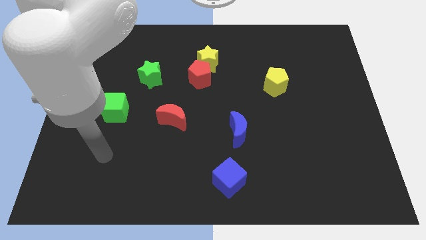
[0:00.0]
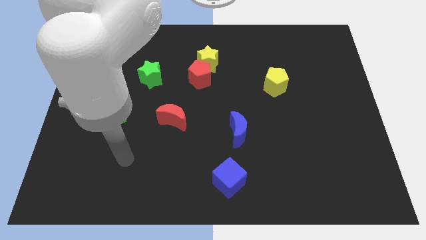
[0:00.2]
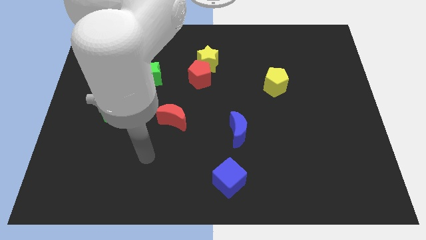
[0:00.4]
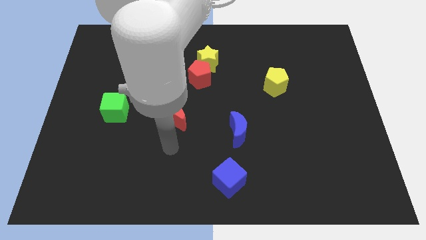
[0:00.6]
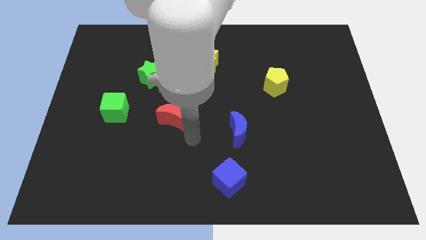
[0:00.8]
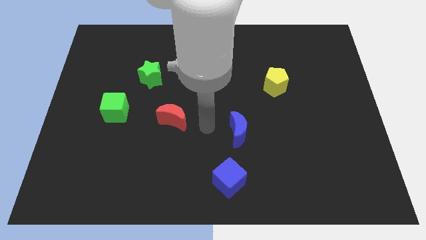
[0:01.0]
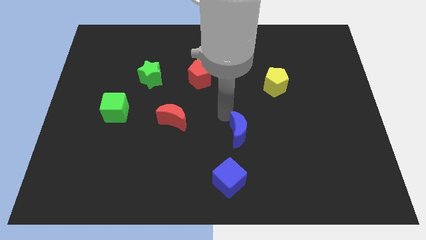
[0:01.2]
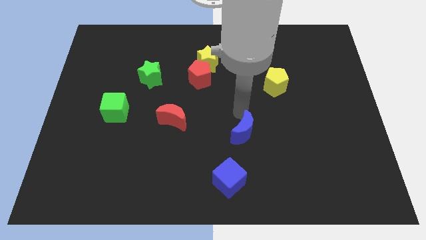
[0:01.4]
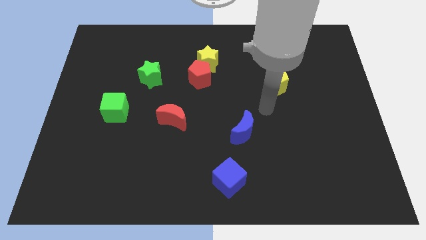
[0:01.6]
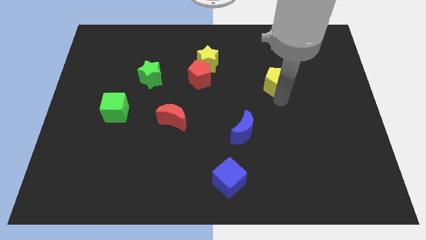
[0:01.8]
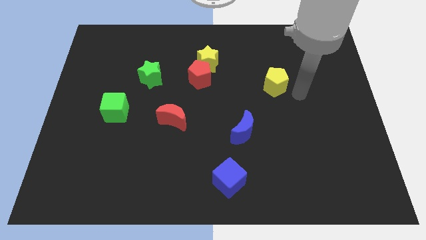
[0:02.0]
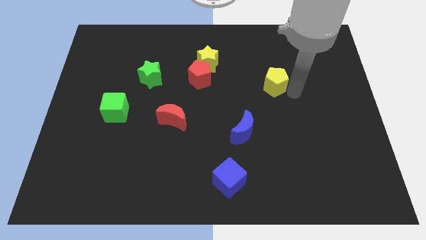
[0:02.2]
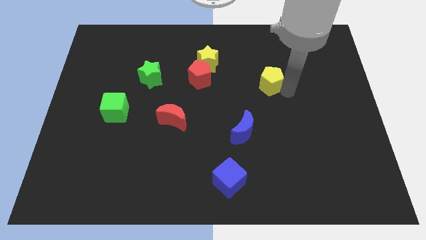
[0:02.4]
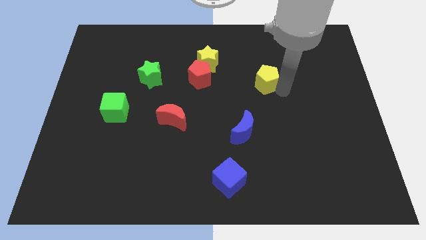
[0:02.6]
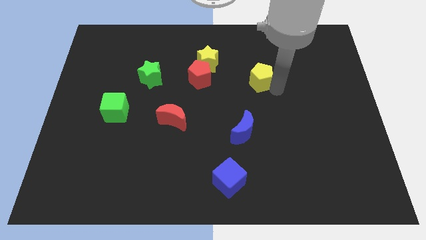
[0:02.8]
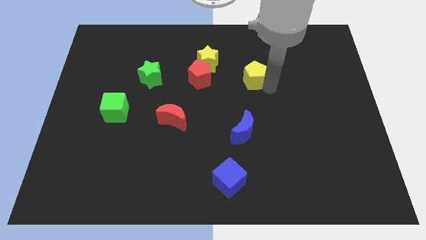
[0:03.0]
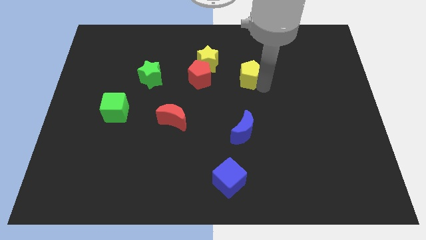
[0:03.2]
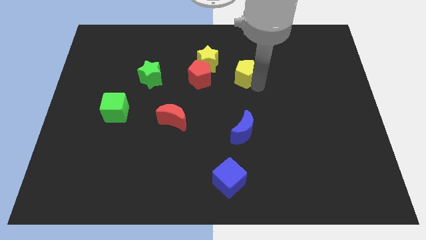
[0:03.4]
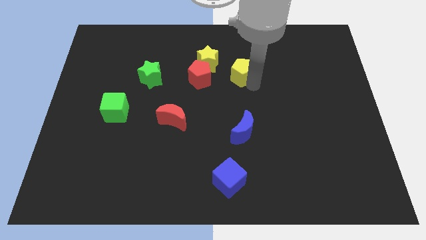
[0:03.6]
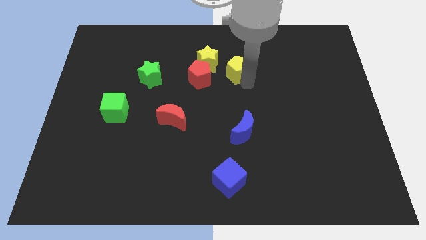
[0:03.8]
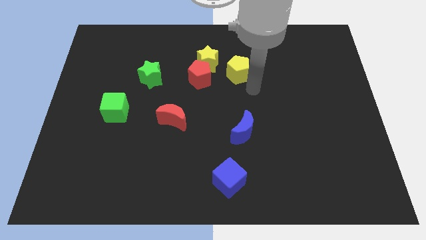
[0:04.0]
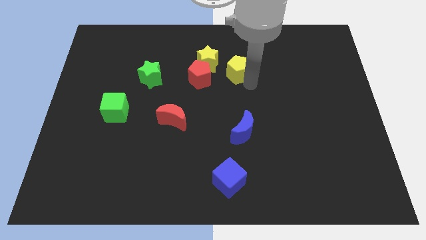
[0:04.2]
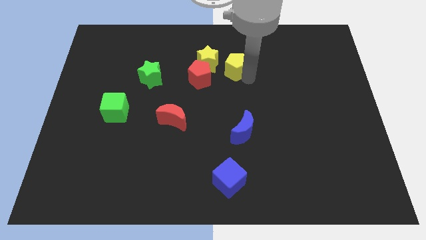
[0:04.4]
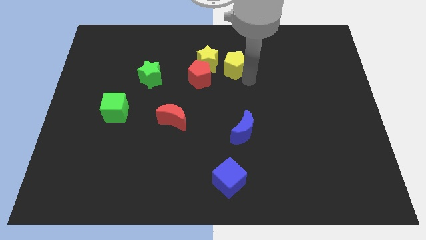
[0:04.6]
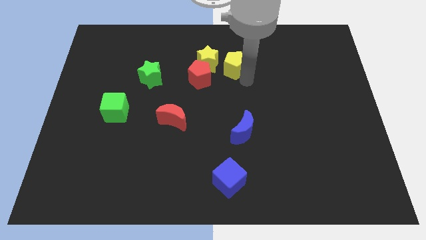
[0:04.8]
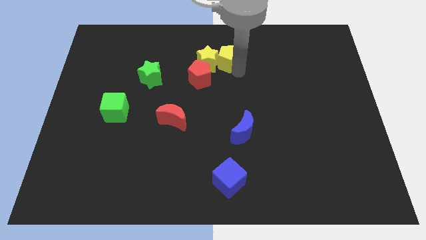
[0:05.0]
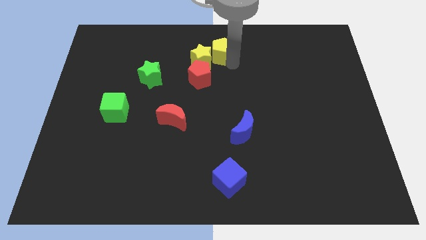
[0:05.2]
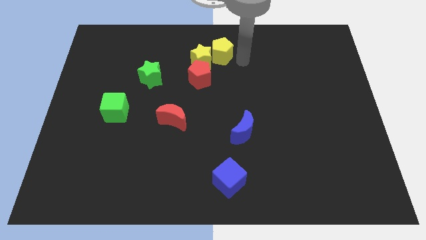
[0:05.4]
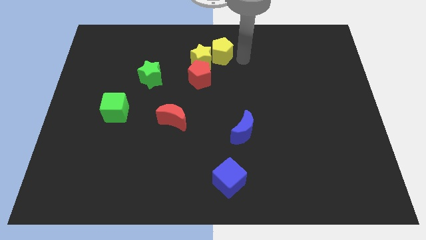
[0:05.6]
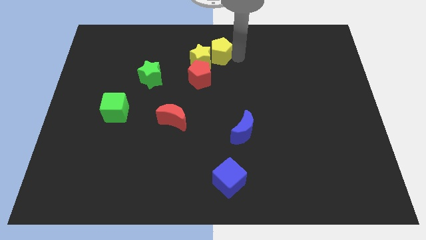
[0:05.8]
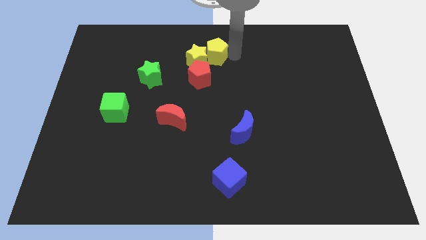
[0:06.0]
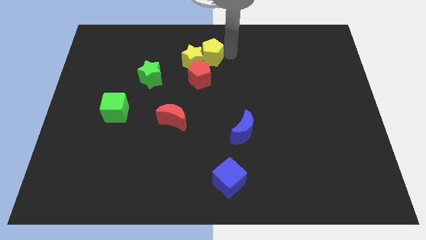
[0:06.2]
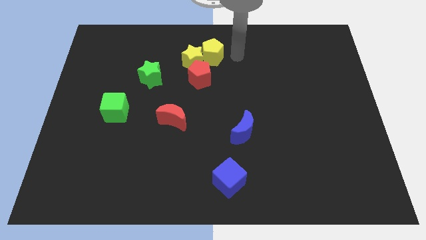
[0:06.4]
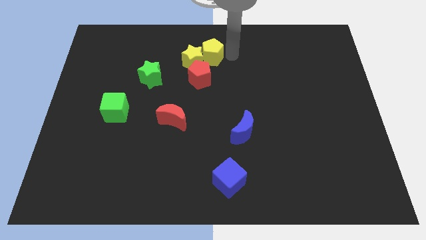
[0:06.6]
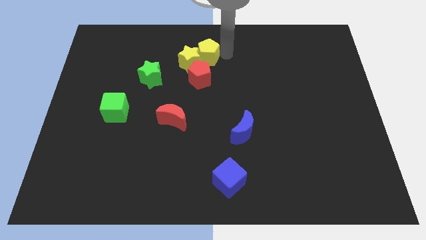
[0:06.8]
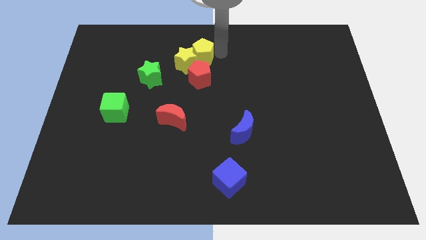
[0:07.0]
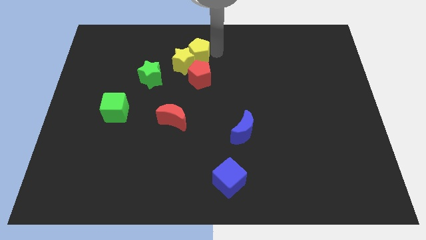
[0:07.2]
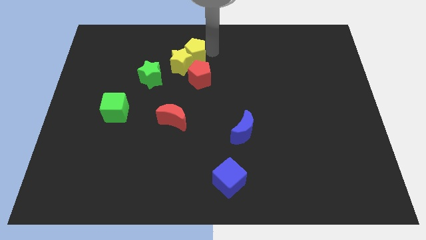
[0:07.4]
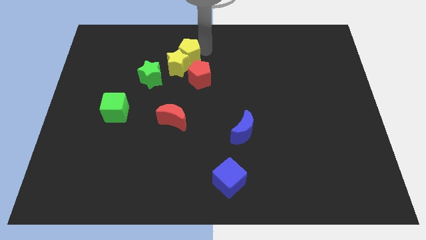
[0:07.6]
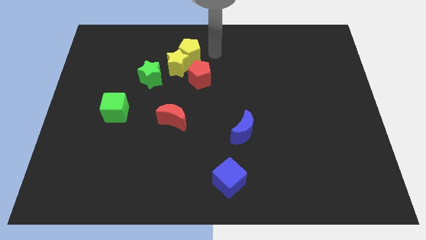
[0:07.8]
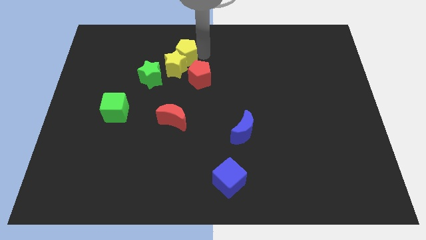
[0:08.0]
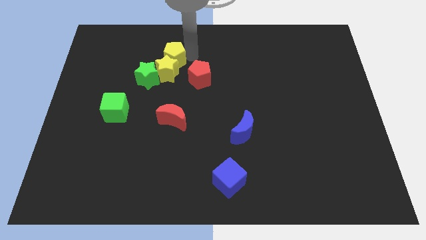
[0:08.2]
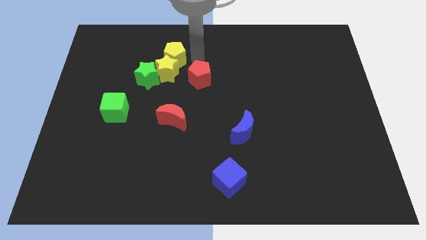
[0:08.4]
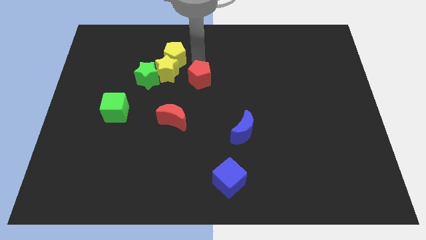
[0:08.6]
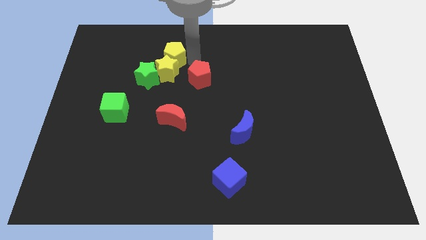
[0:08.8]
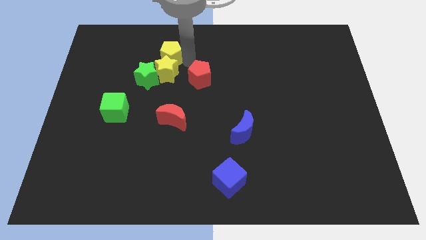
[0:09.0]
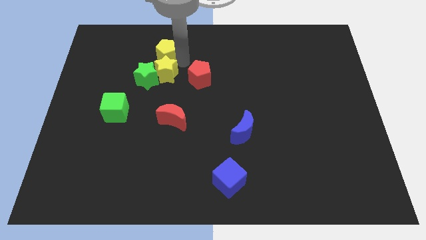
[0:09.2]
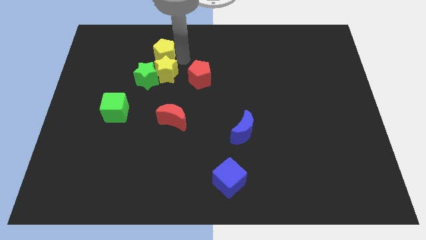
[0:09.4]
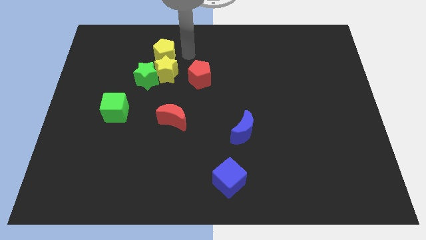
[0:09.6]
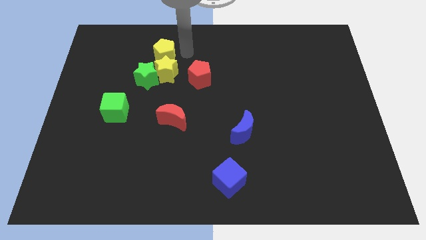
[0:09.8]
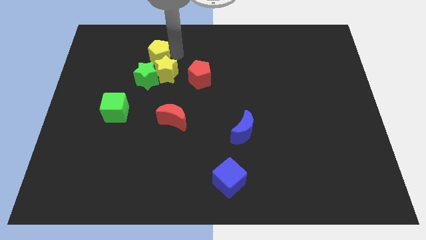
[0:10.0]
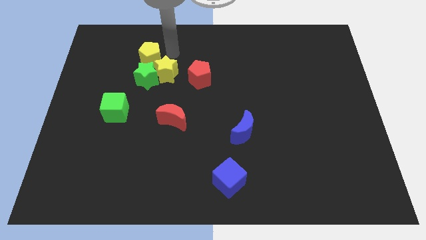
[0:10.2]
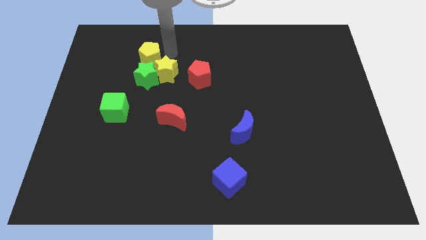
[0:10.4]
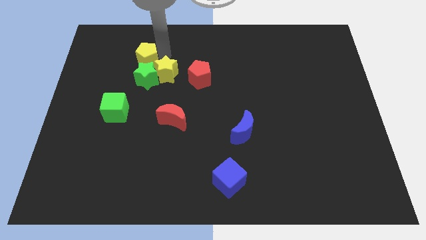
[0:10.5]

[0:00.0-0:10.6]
put the yellow pentagon diagonally up and to the left of the green star

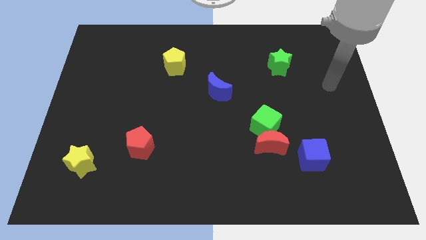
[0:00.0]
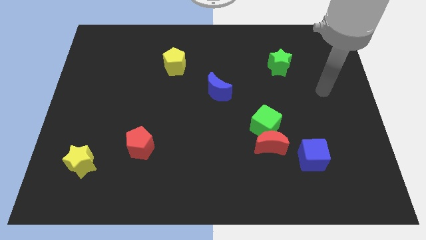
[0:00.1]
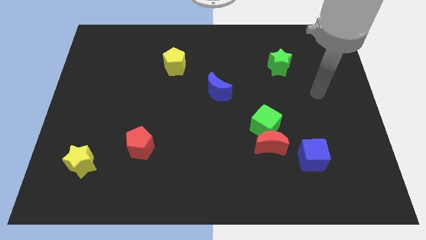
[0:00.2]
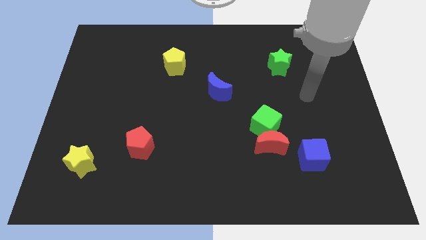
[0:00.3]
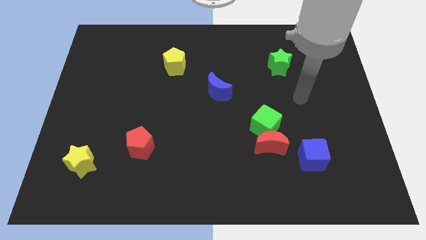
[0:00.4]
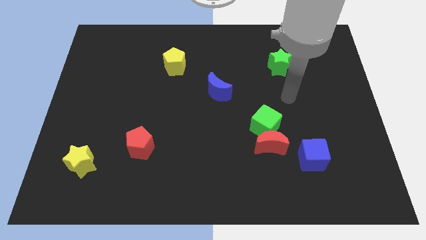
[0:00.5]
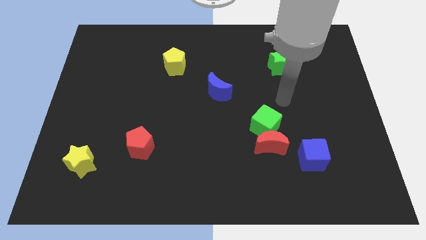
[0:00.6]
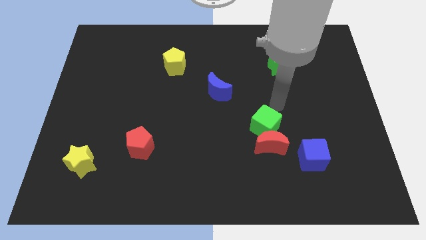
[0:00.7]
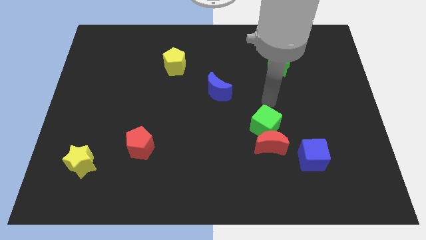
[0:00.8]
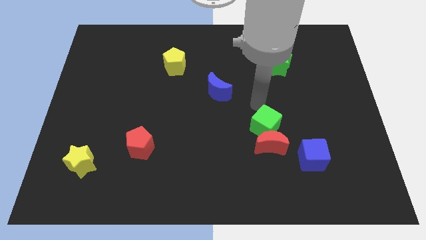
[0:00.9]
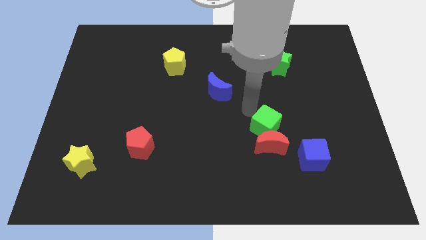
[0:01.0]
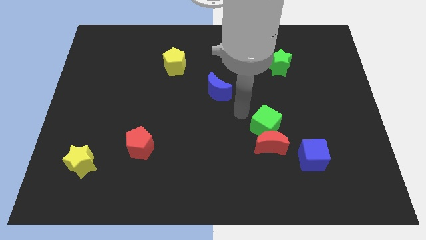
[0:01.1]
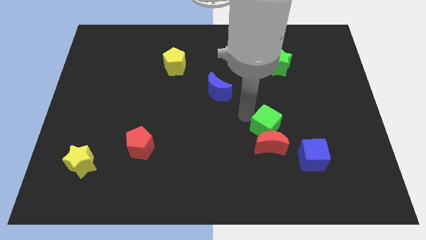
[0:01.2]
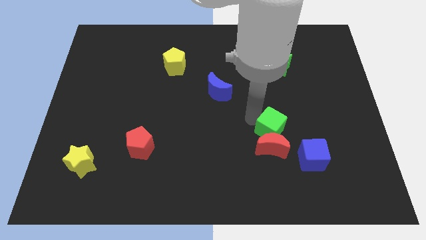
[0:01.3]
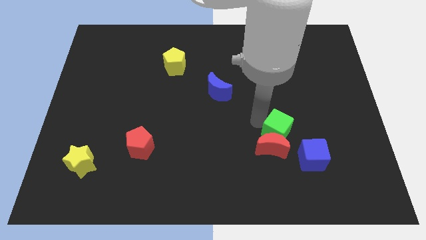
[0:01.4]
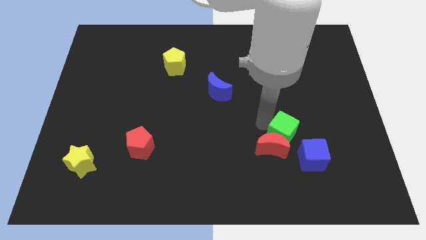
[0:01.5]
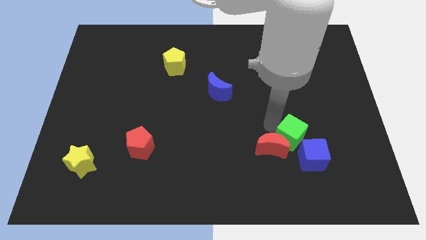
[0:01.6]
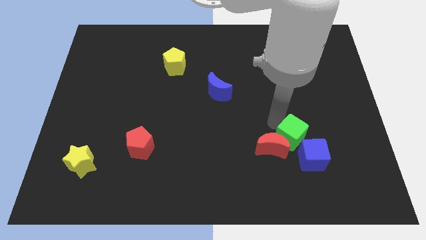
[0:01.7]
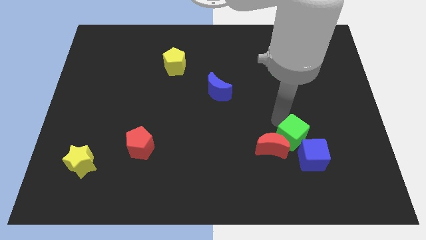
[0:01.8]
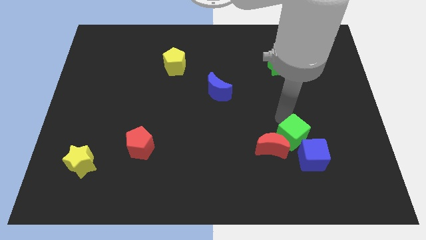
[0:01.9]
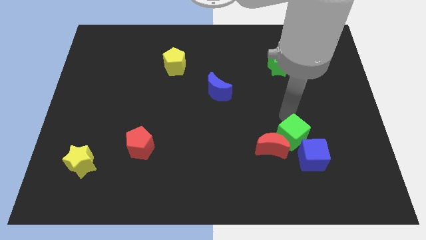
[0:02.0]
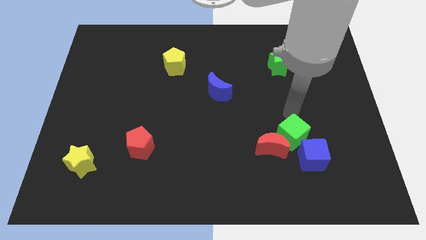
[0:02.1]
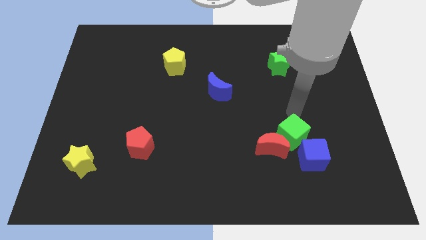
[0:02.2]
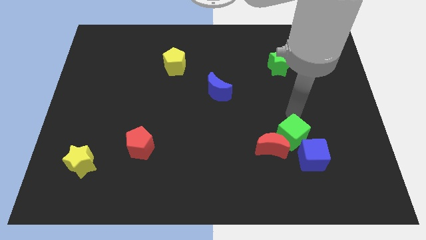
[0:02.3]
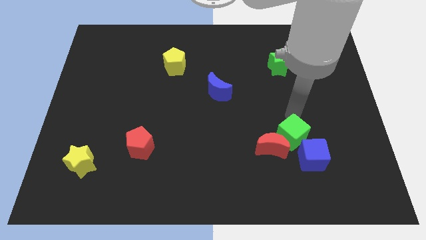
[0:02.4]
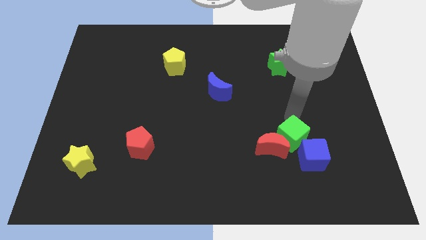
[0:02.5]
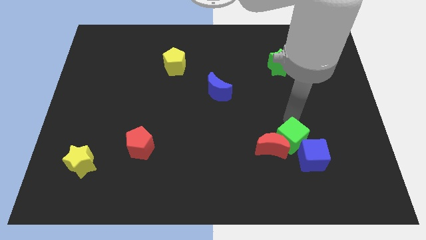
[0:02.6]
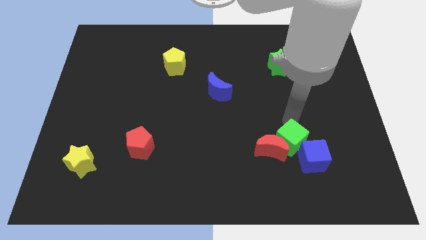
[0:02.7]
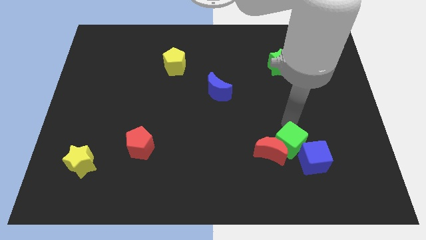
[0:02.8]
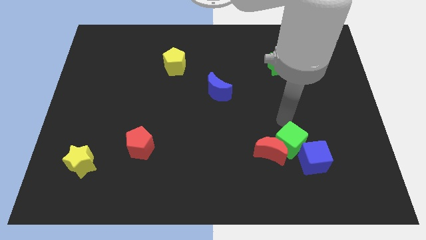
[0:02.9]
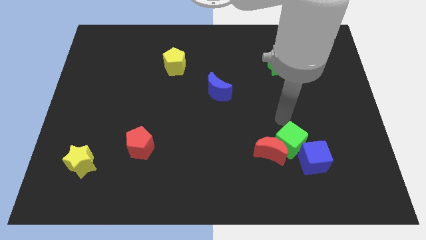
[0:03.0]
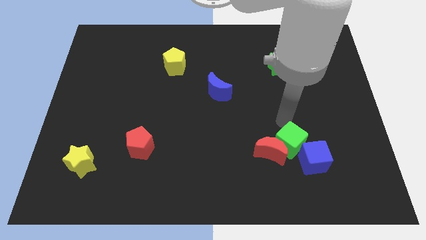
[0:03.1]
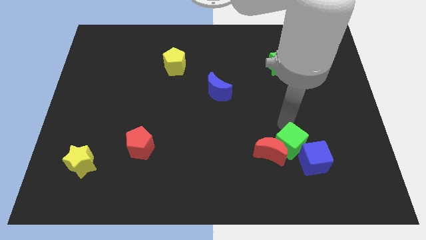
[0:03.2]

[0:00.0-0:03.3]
push the green cube diagonally down and to the right of the red moon
